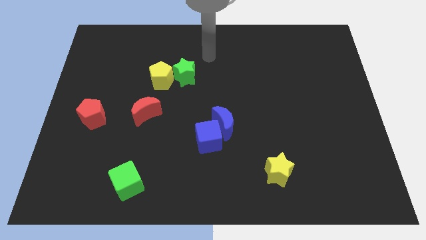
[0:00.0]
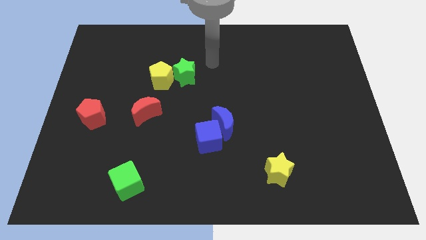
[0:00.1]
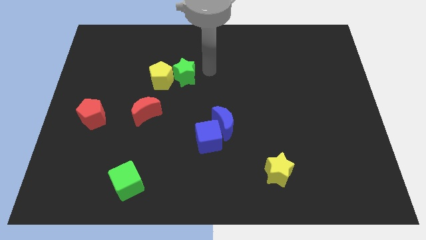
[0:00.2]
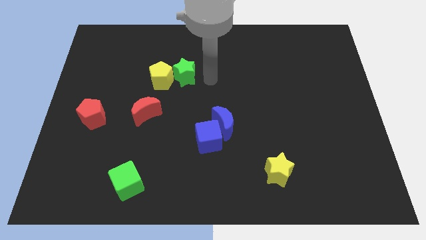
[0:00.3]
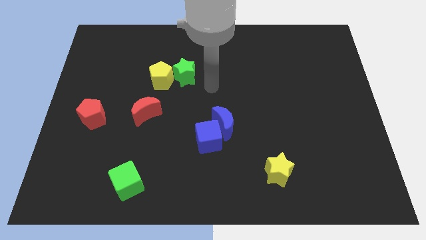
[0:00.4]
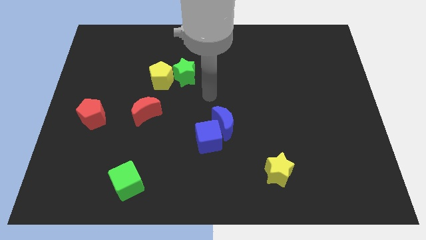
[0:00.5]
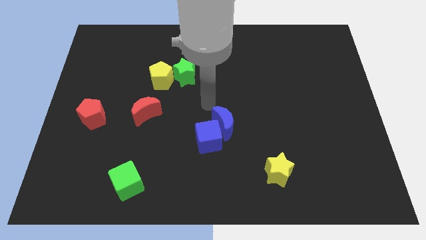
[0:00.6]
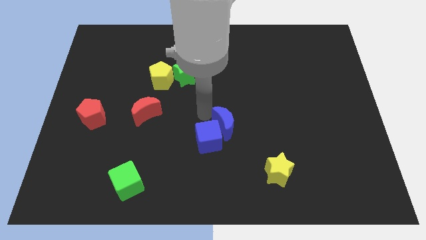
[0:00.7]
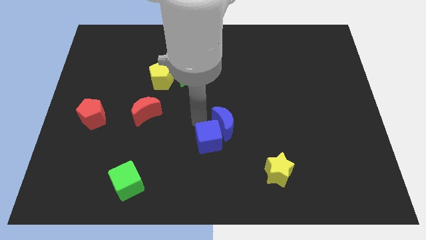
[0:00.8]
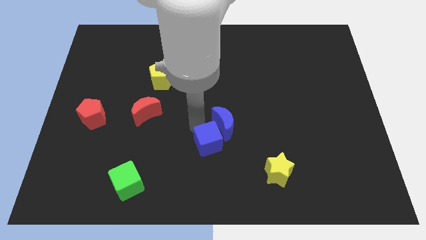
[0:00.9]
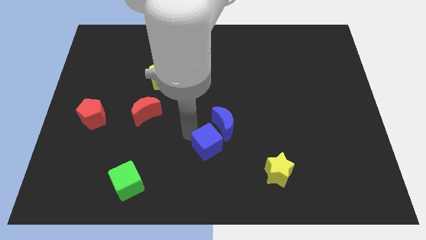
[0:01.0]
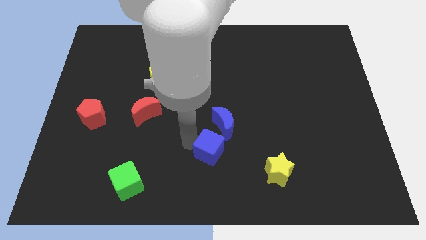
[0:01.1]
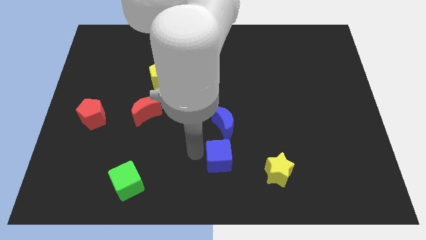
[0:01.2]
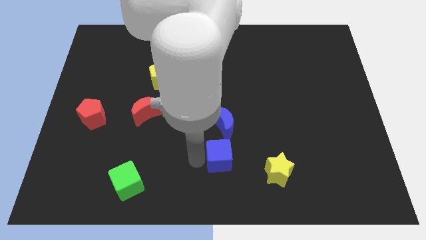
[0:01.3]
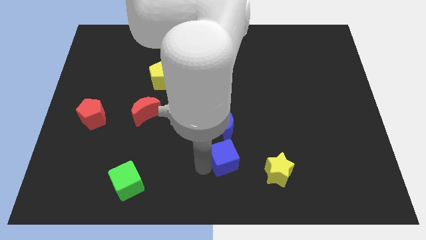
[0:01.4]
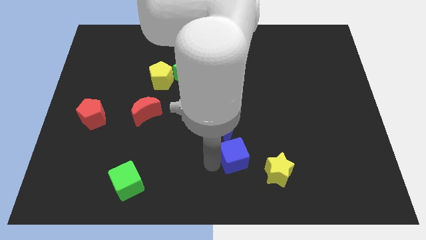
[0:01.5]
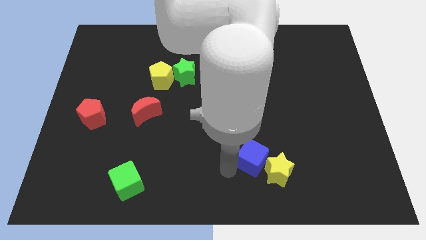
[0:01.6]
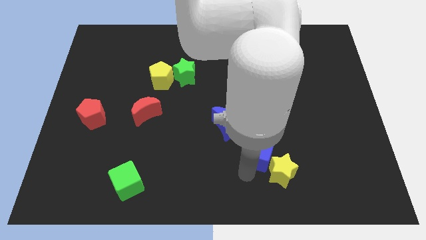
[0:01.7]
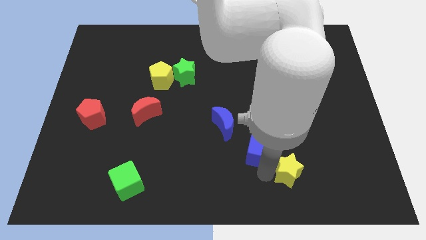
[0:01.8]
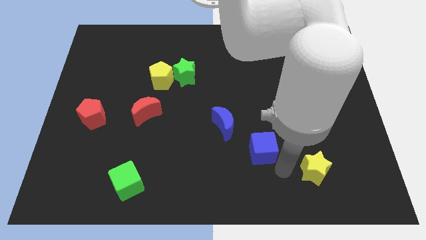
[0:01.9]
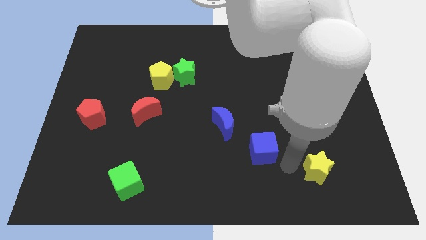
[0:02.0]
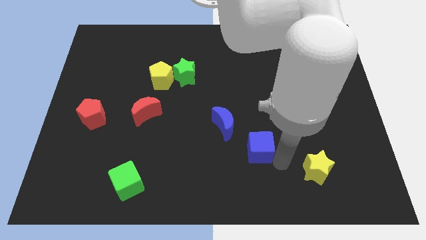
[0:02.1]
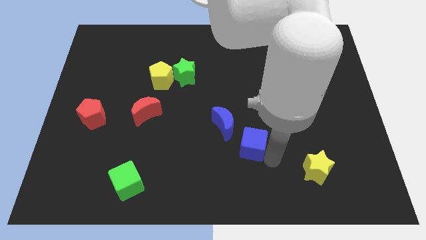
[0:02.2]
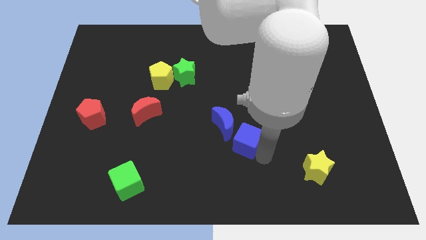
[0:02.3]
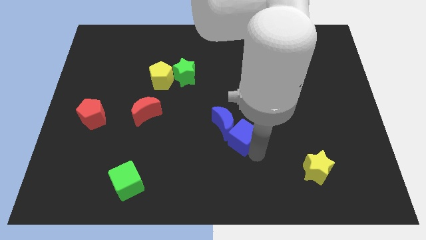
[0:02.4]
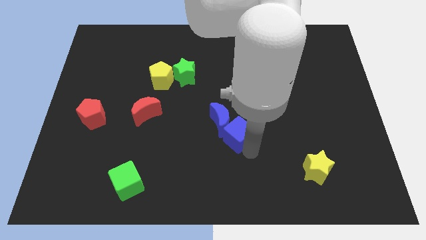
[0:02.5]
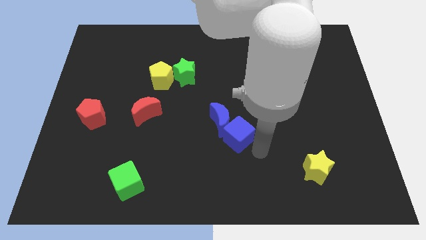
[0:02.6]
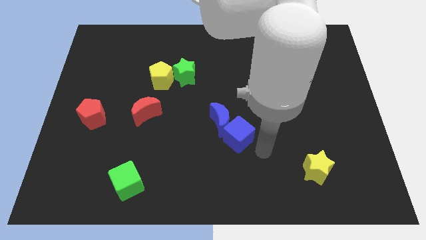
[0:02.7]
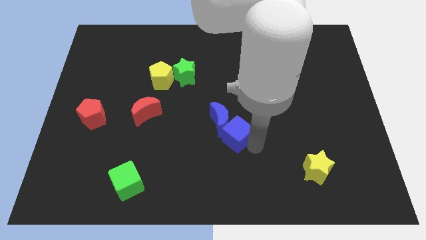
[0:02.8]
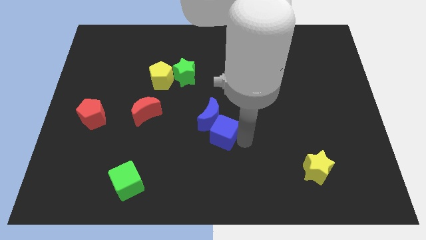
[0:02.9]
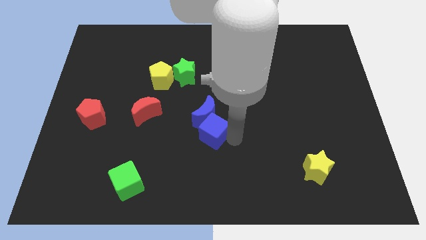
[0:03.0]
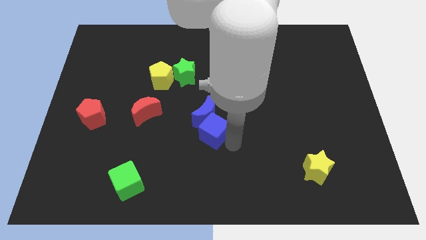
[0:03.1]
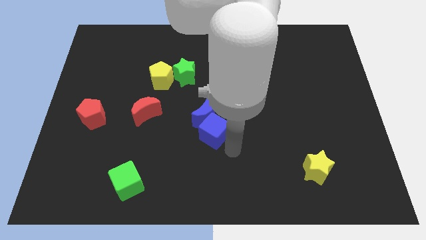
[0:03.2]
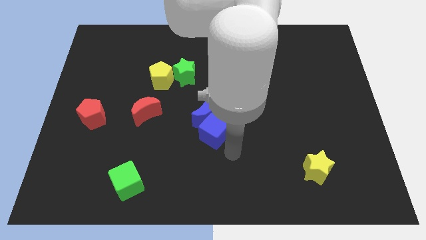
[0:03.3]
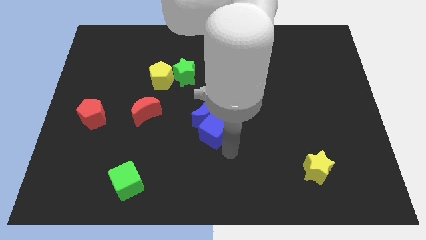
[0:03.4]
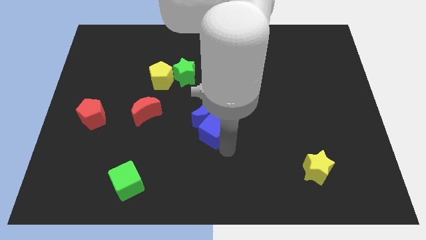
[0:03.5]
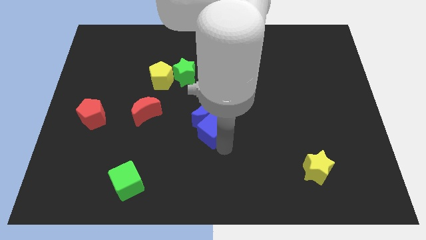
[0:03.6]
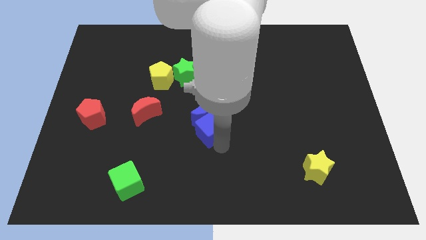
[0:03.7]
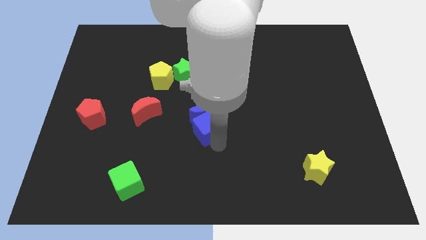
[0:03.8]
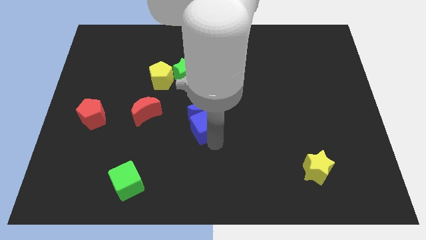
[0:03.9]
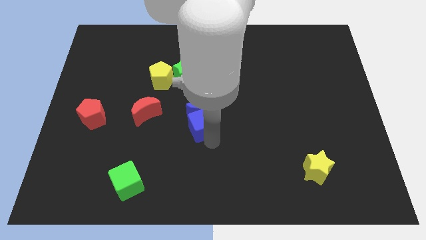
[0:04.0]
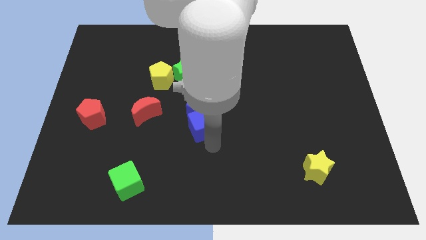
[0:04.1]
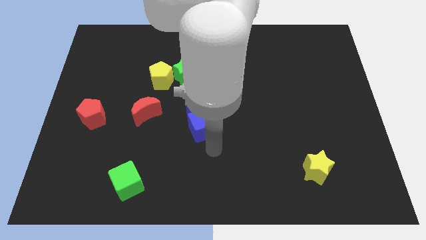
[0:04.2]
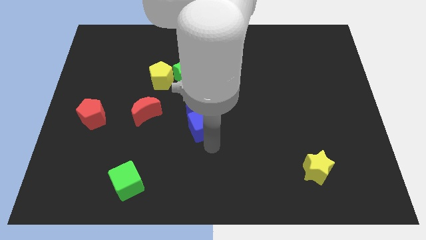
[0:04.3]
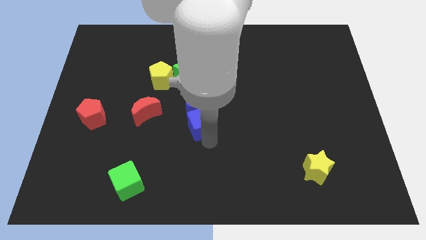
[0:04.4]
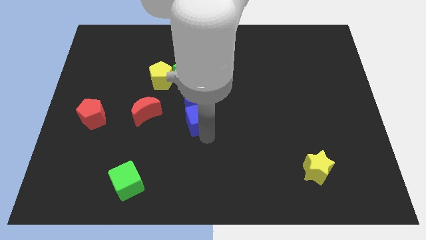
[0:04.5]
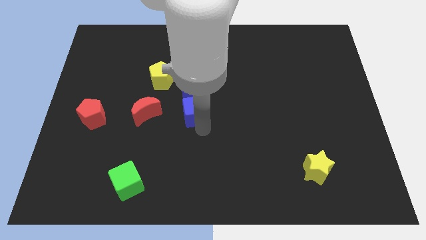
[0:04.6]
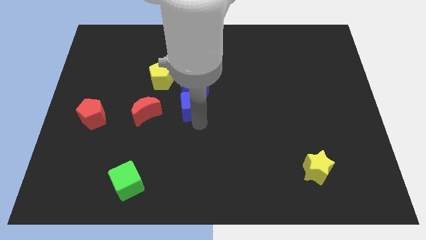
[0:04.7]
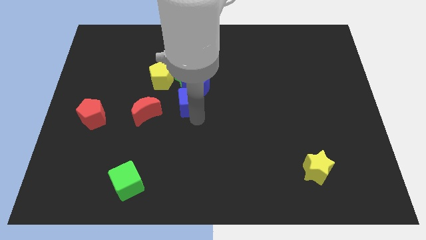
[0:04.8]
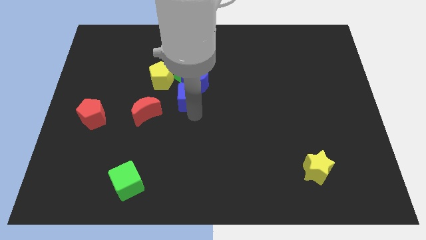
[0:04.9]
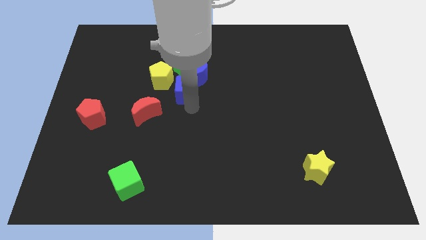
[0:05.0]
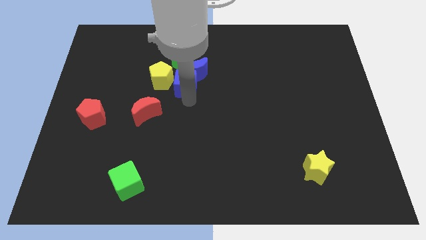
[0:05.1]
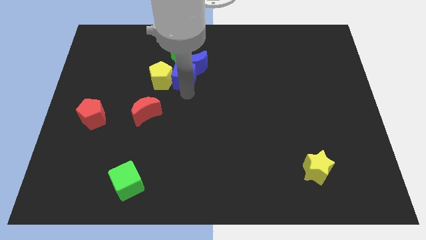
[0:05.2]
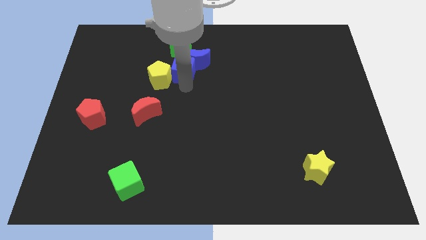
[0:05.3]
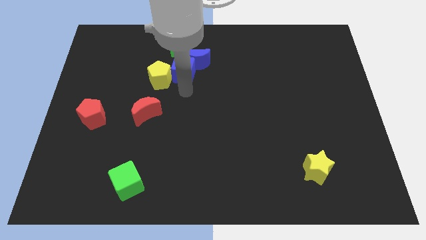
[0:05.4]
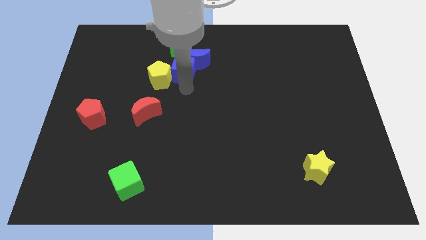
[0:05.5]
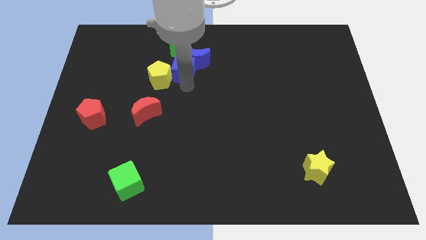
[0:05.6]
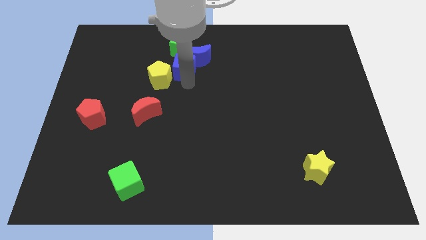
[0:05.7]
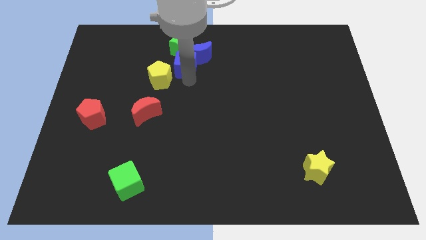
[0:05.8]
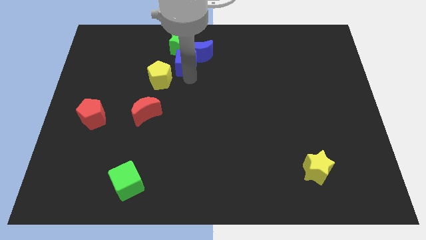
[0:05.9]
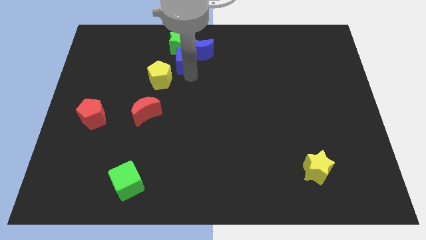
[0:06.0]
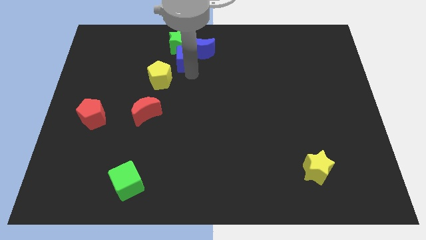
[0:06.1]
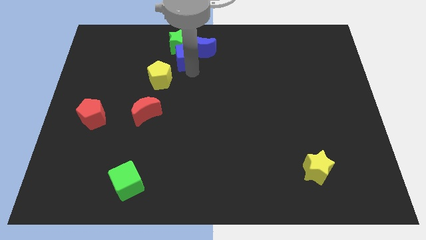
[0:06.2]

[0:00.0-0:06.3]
push the blue cube next to the green star

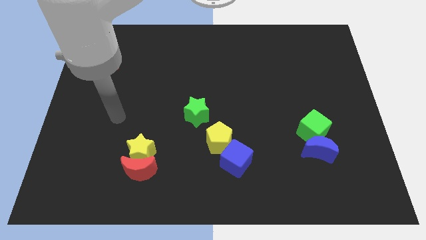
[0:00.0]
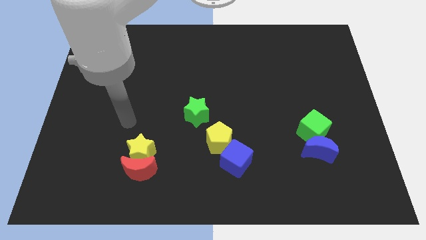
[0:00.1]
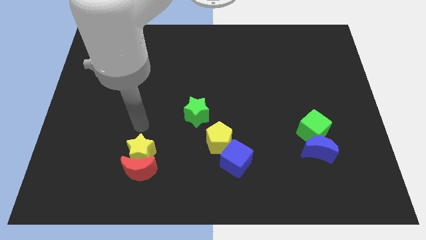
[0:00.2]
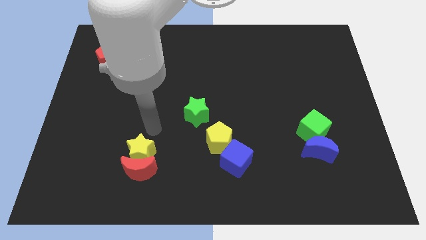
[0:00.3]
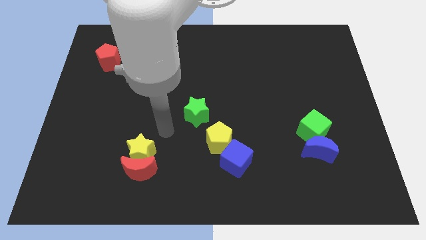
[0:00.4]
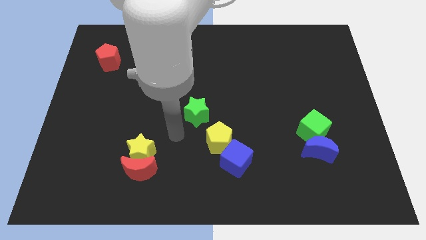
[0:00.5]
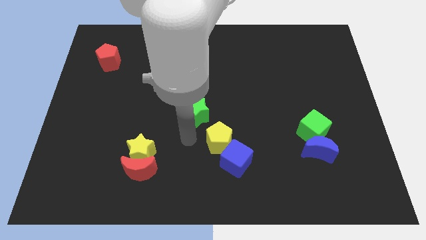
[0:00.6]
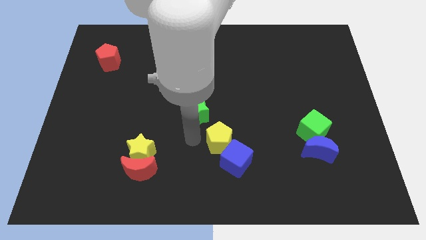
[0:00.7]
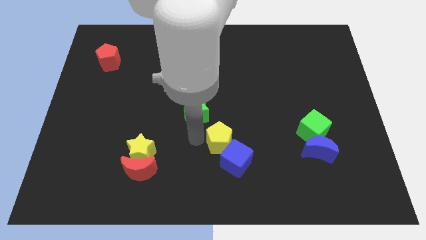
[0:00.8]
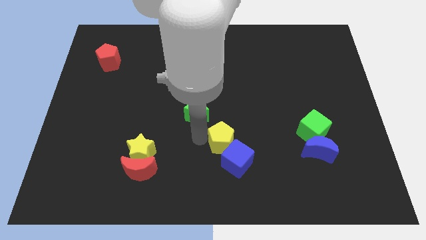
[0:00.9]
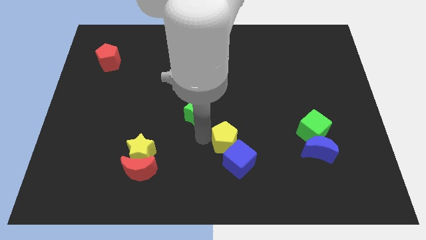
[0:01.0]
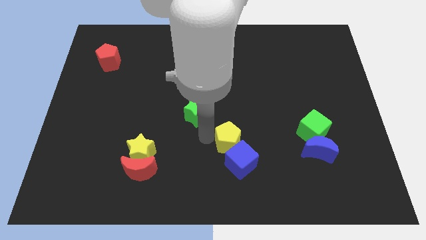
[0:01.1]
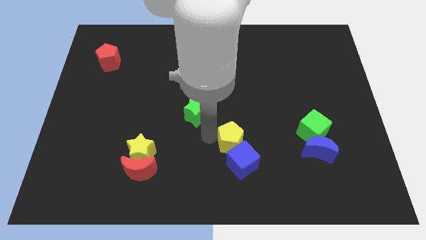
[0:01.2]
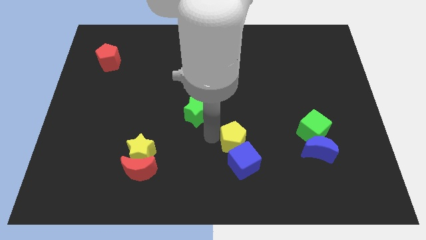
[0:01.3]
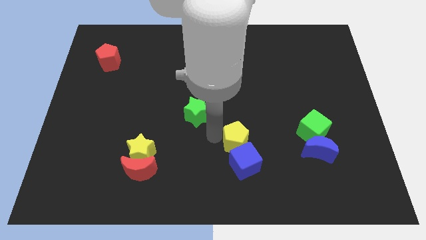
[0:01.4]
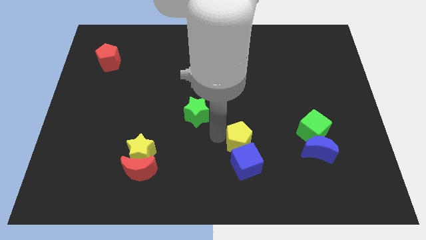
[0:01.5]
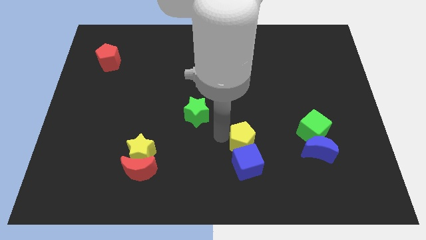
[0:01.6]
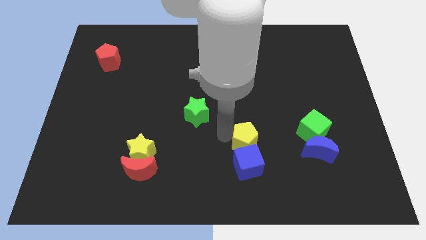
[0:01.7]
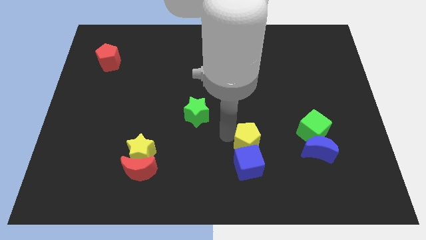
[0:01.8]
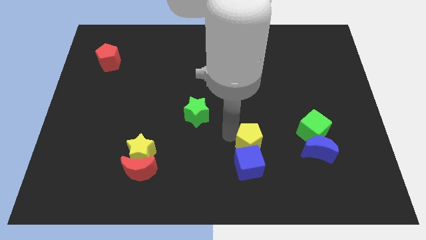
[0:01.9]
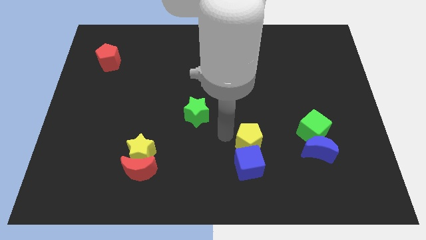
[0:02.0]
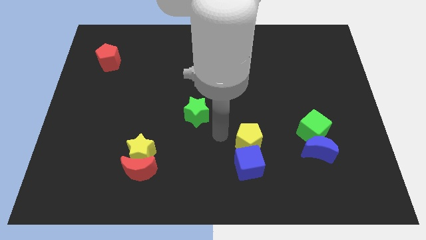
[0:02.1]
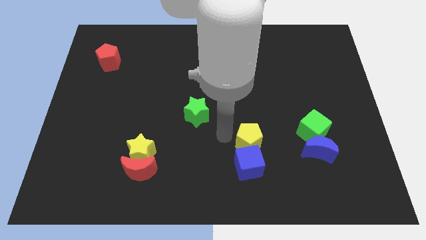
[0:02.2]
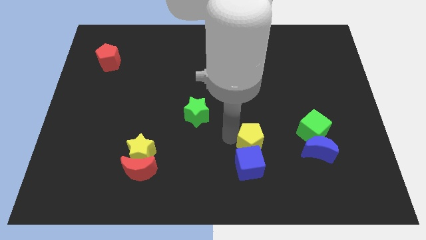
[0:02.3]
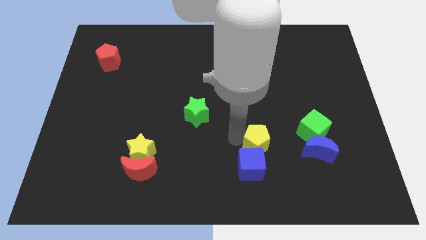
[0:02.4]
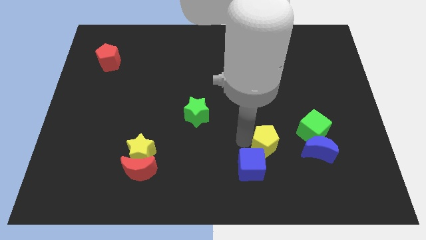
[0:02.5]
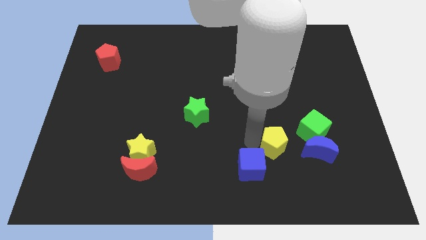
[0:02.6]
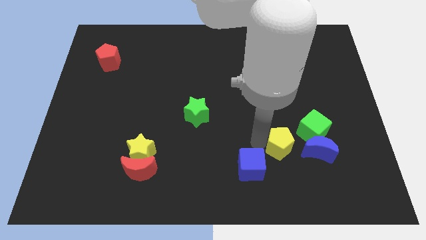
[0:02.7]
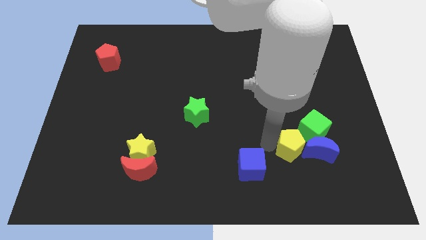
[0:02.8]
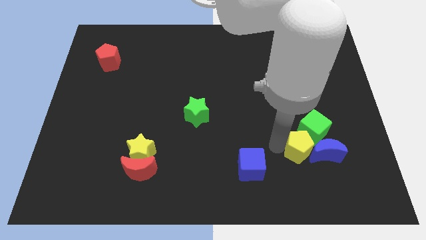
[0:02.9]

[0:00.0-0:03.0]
put the yellow pentagon to the blue moon
